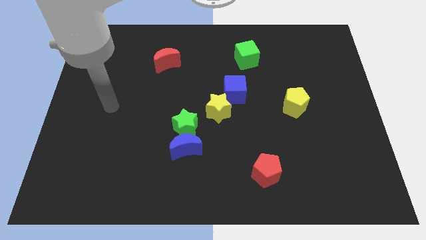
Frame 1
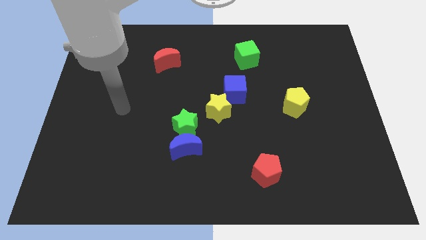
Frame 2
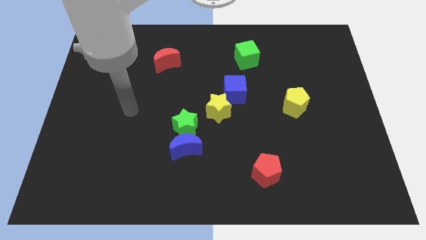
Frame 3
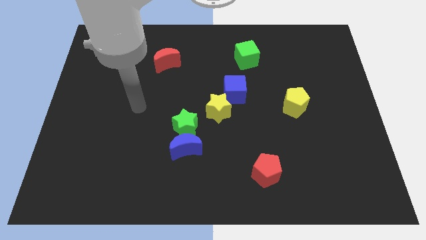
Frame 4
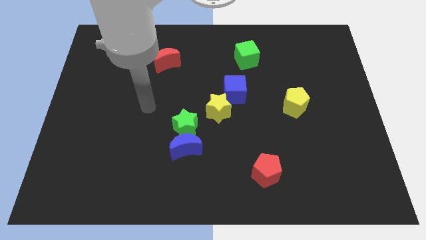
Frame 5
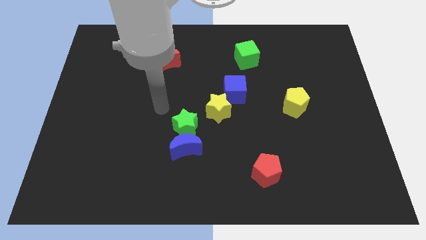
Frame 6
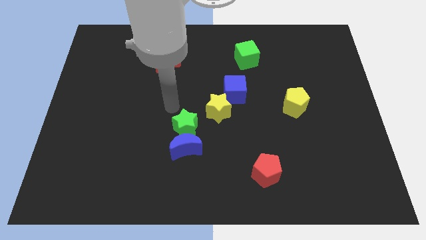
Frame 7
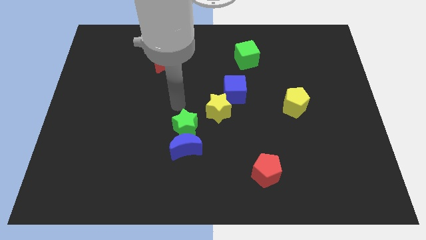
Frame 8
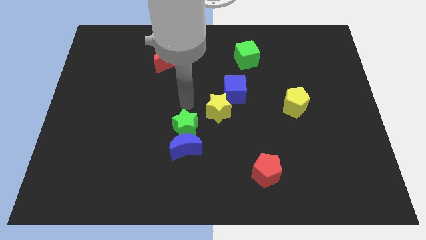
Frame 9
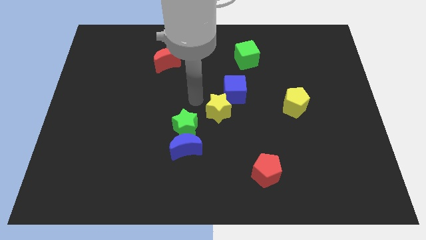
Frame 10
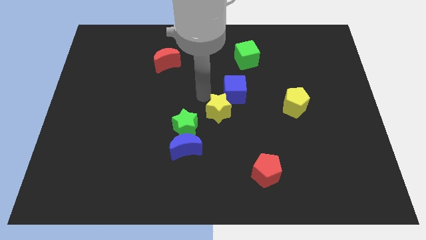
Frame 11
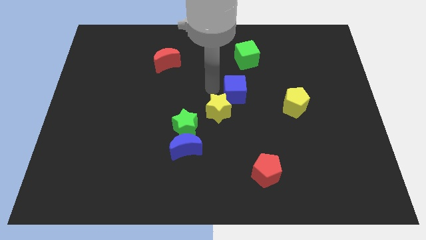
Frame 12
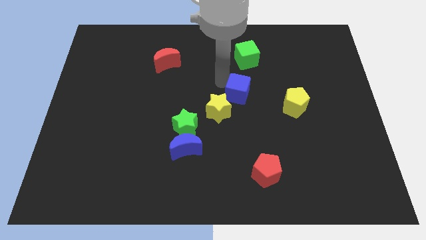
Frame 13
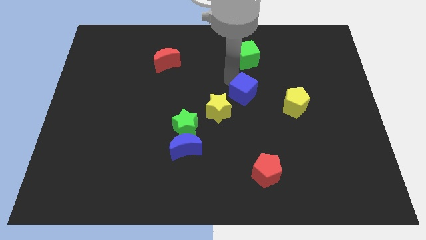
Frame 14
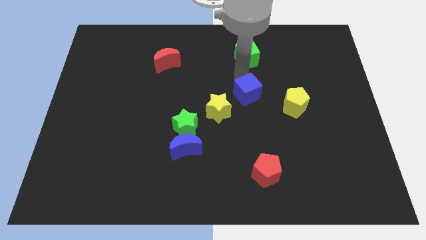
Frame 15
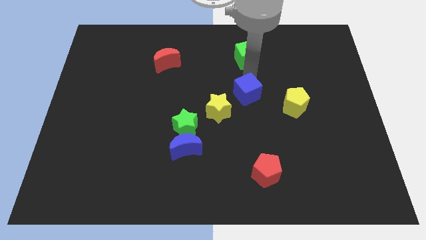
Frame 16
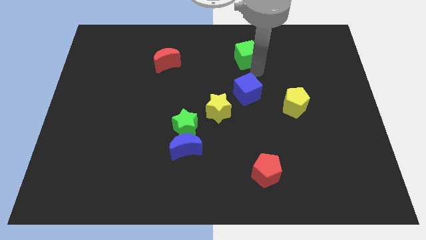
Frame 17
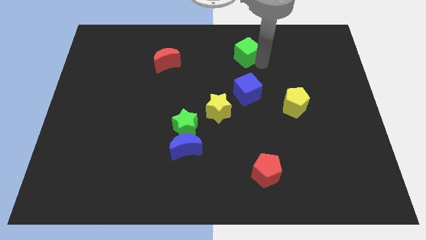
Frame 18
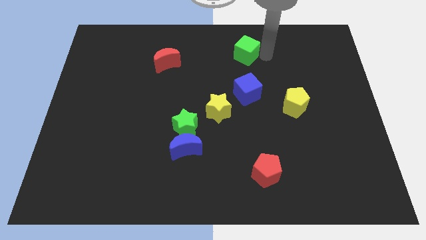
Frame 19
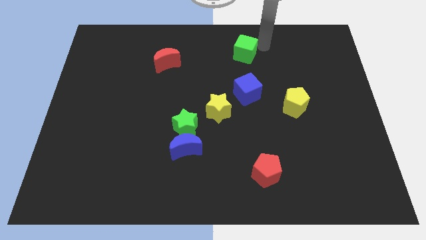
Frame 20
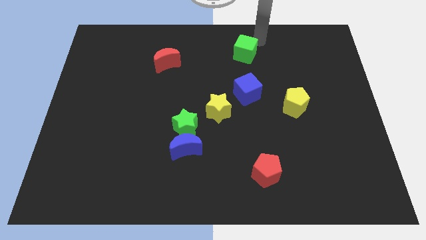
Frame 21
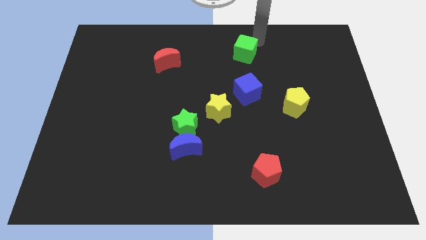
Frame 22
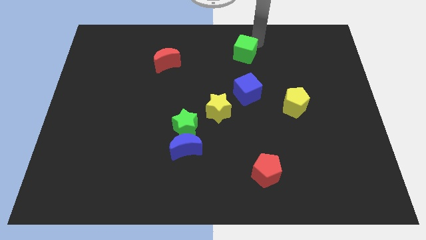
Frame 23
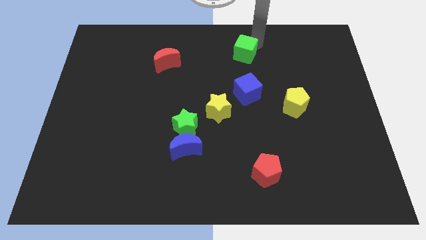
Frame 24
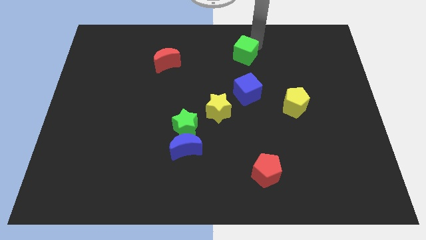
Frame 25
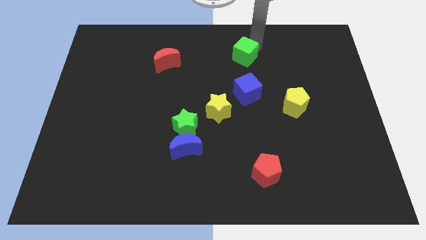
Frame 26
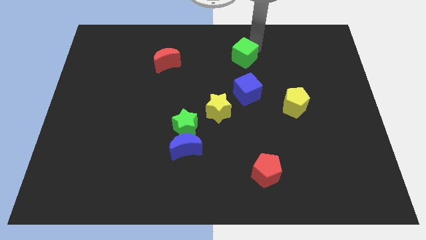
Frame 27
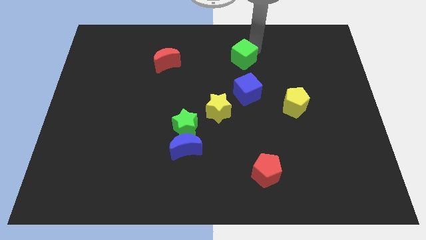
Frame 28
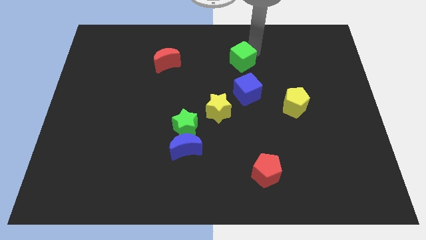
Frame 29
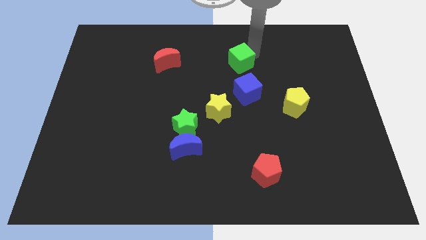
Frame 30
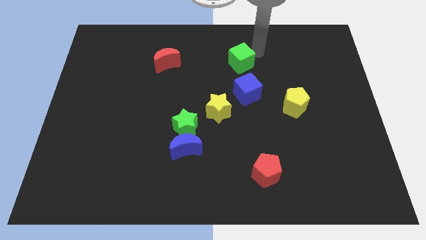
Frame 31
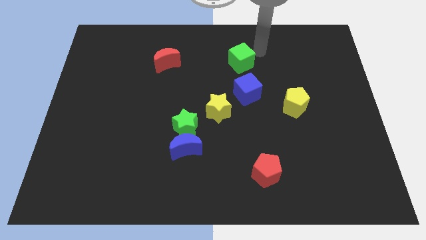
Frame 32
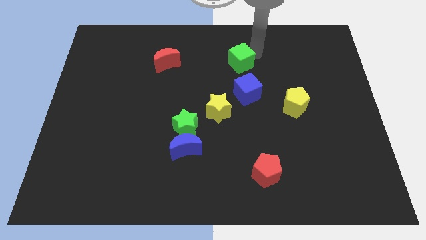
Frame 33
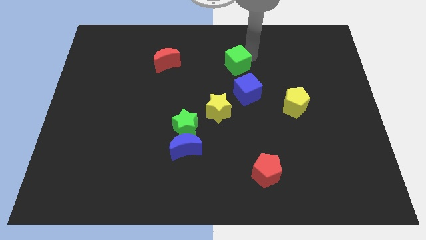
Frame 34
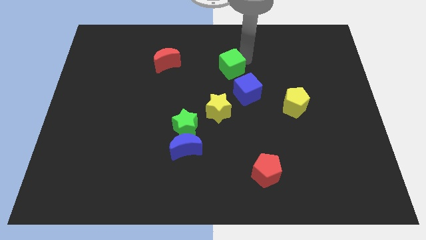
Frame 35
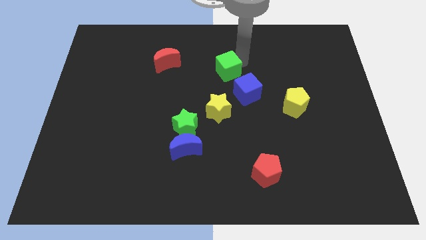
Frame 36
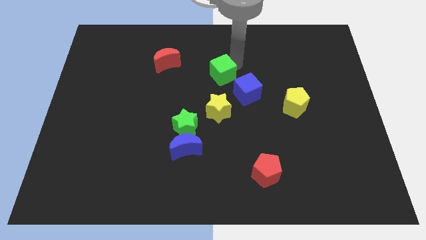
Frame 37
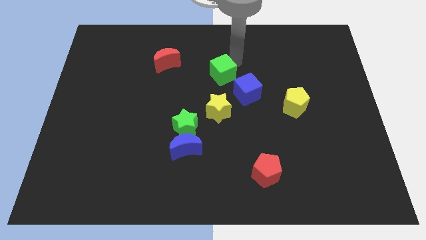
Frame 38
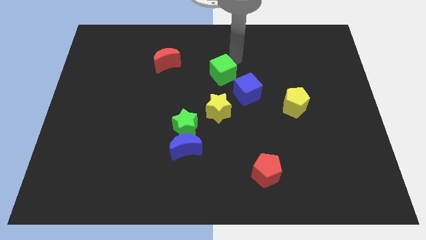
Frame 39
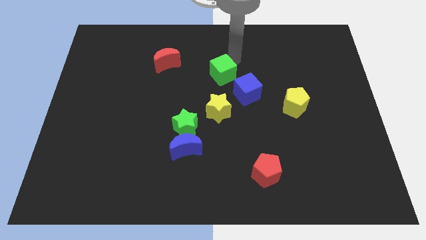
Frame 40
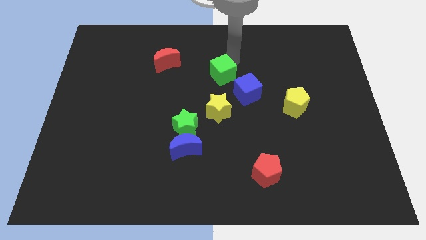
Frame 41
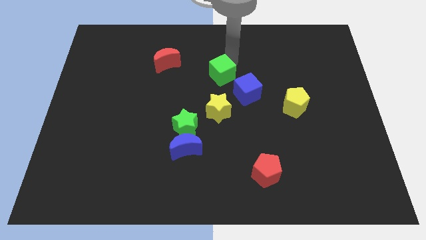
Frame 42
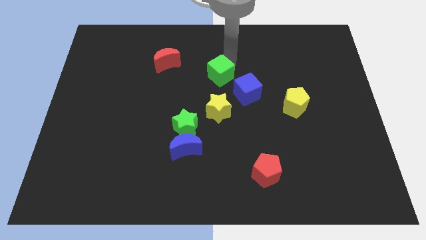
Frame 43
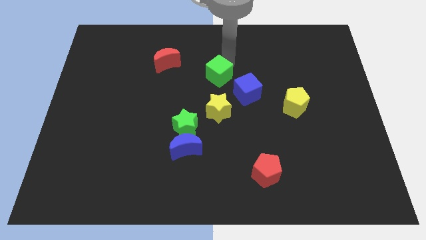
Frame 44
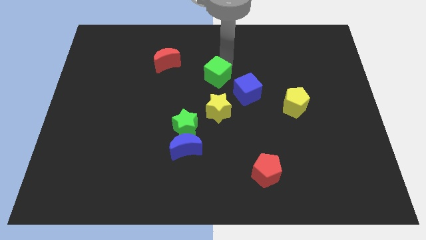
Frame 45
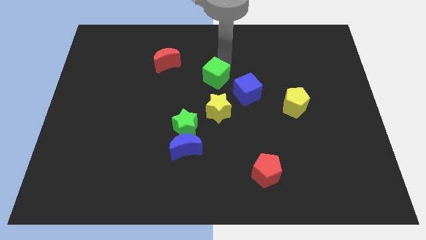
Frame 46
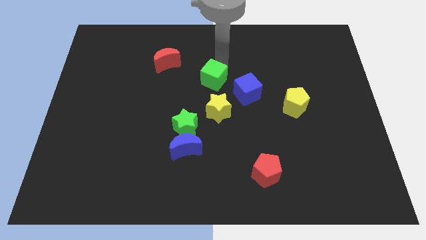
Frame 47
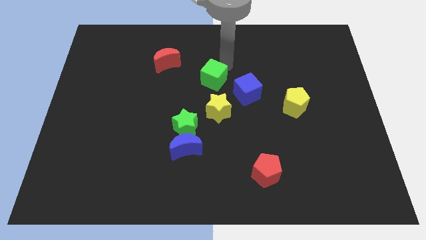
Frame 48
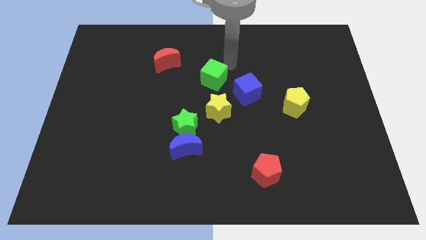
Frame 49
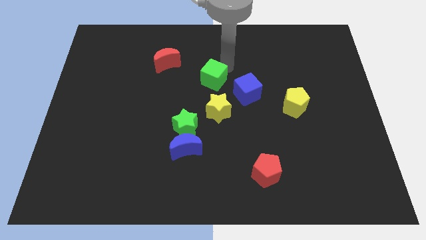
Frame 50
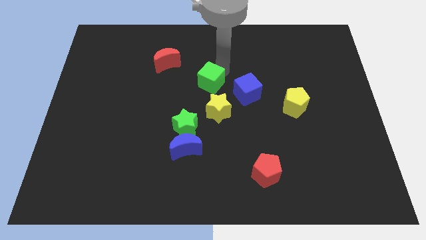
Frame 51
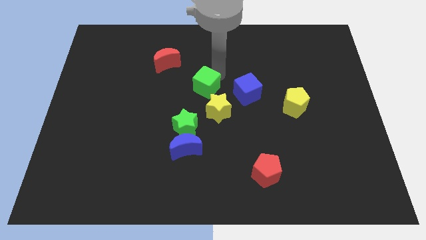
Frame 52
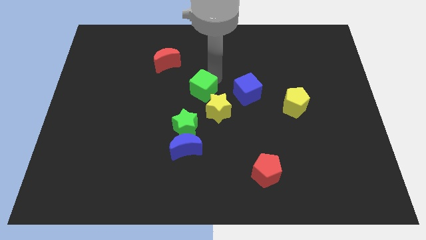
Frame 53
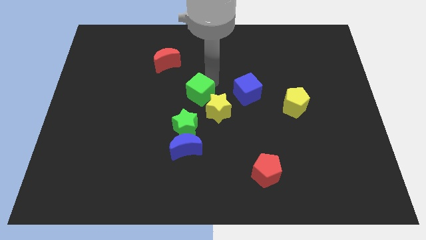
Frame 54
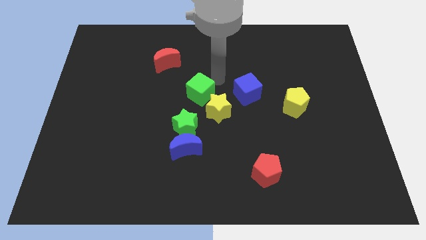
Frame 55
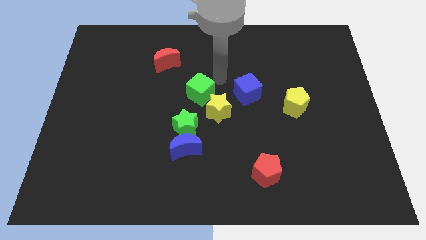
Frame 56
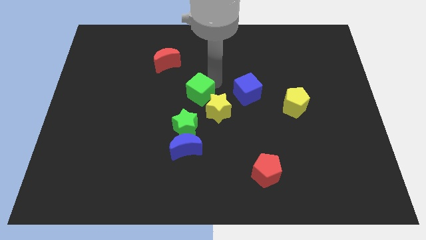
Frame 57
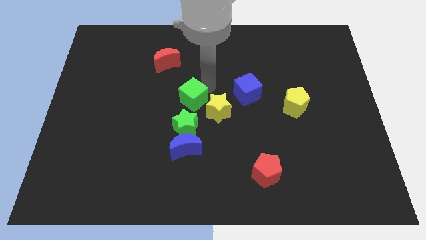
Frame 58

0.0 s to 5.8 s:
move the green cube to the left side of the yellow star

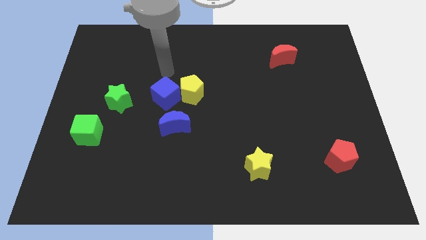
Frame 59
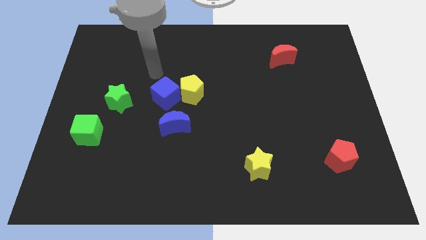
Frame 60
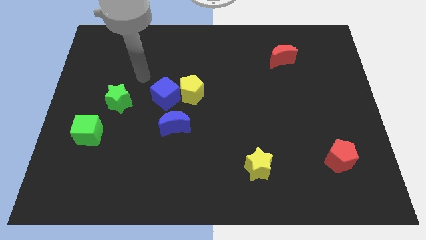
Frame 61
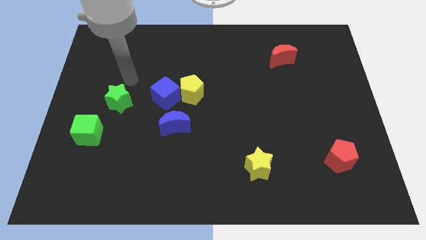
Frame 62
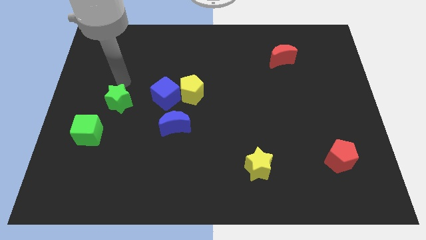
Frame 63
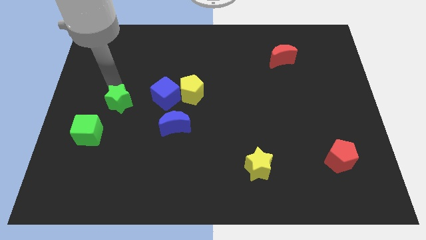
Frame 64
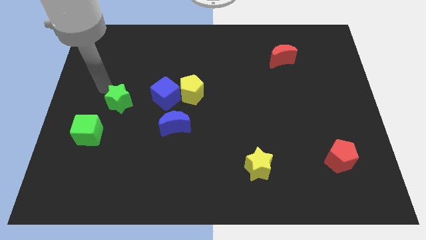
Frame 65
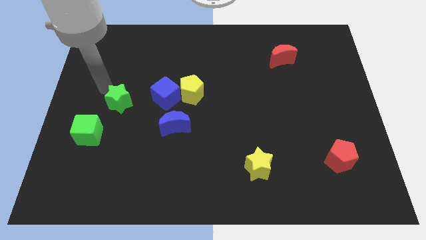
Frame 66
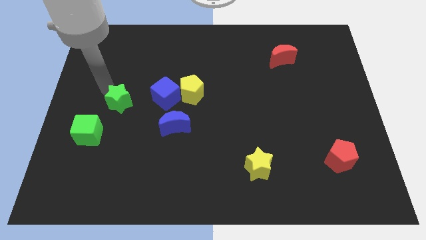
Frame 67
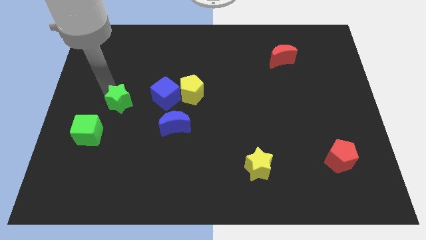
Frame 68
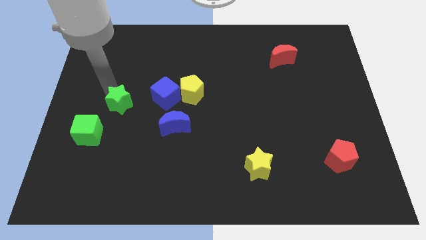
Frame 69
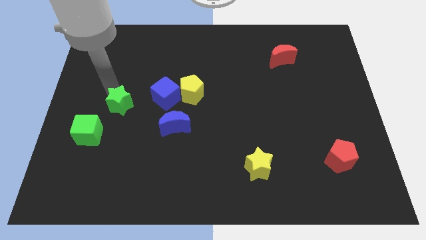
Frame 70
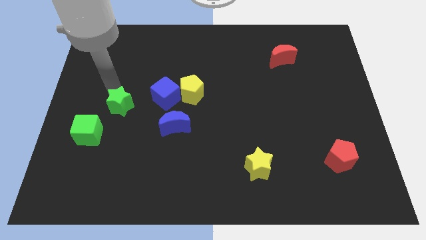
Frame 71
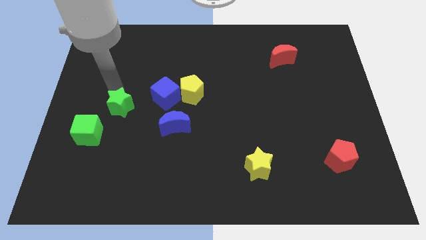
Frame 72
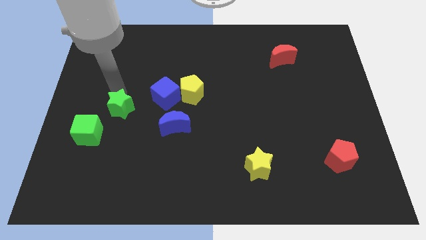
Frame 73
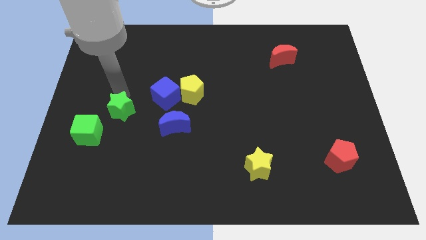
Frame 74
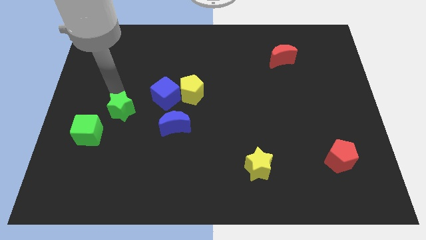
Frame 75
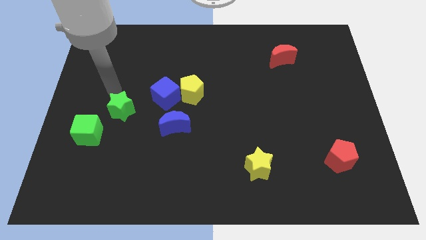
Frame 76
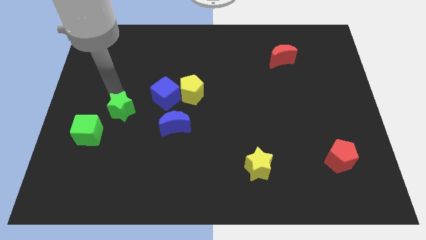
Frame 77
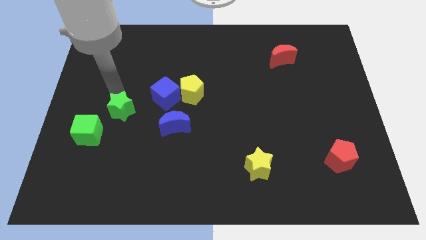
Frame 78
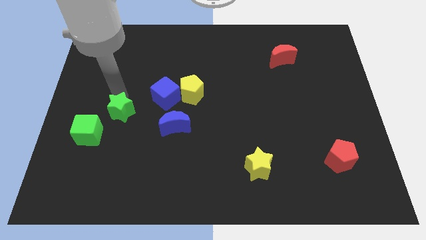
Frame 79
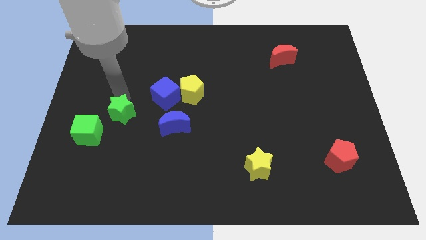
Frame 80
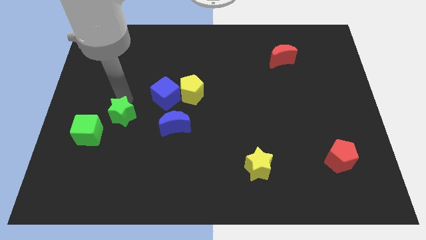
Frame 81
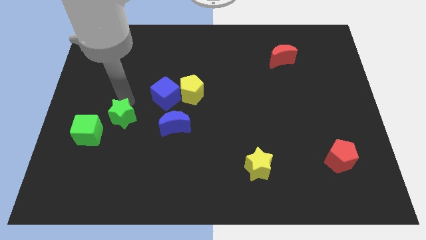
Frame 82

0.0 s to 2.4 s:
move the green star to the right side of the green cube

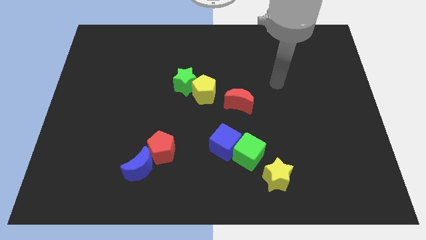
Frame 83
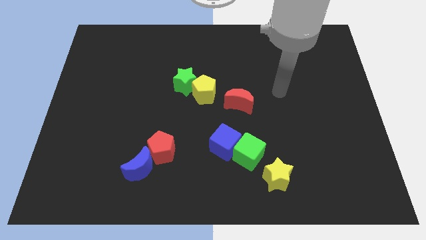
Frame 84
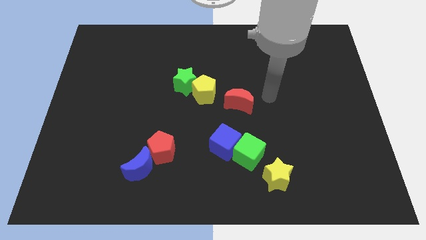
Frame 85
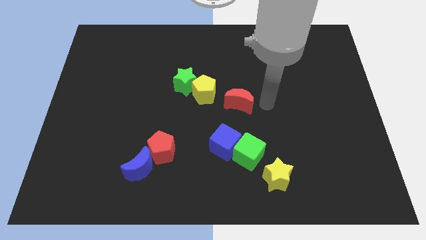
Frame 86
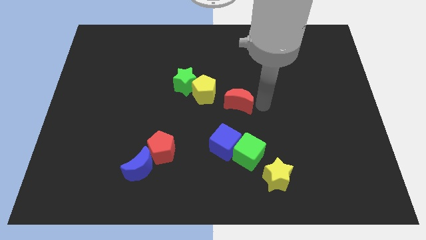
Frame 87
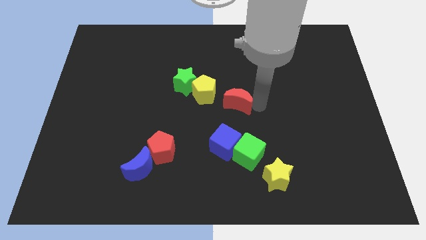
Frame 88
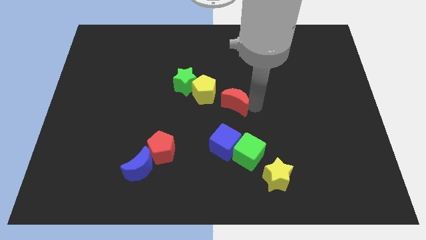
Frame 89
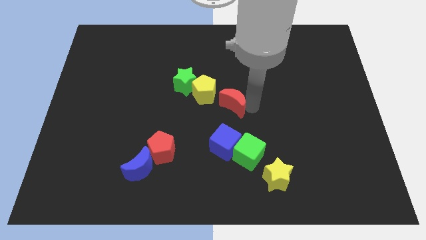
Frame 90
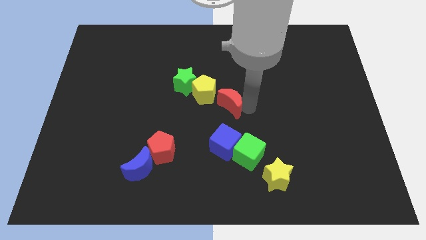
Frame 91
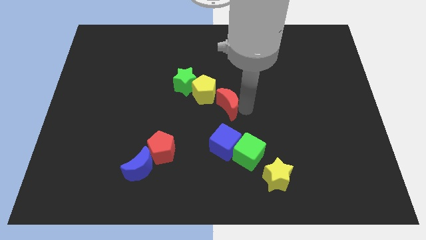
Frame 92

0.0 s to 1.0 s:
put the red moon to the bottom right of the green star
